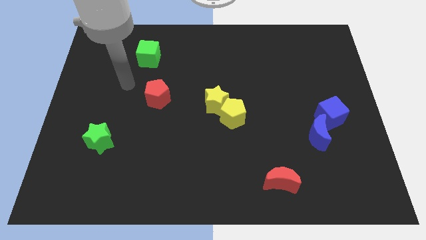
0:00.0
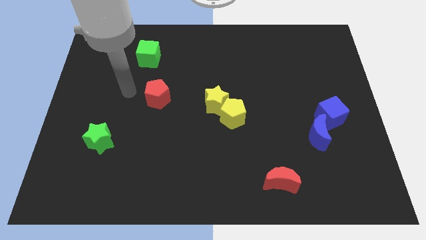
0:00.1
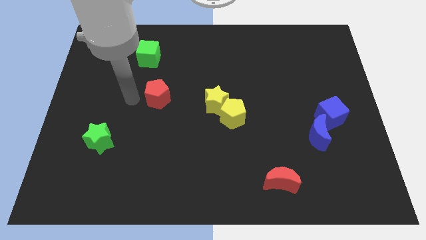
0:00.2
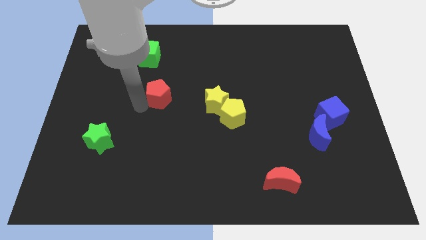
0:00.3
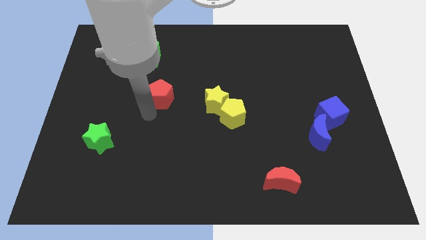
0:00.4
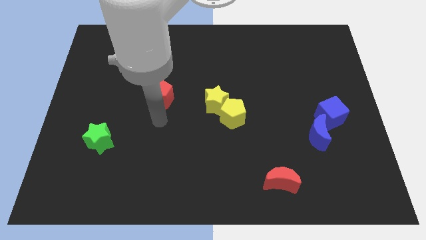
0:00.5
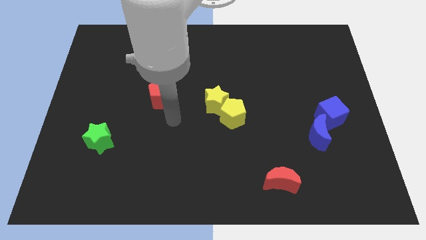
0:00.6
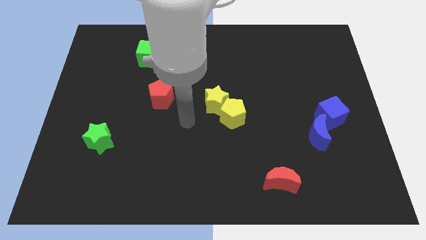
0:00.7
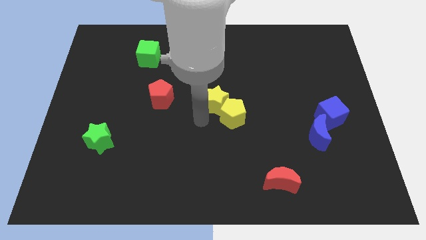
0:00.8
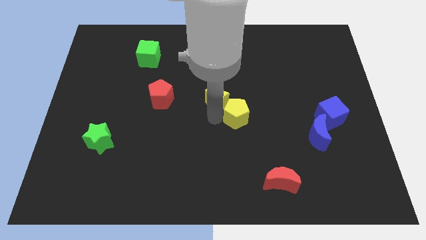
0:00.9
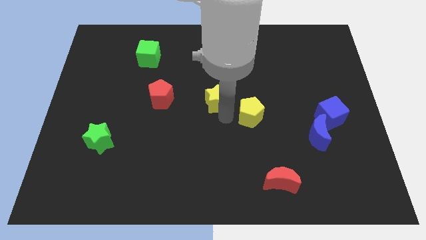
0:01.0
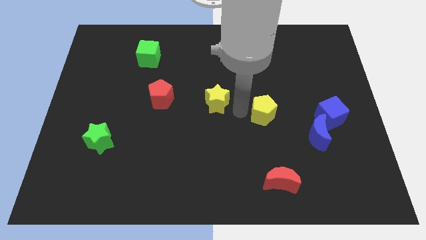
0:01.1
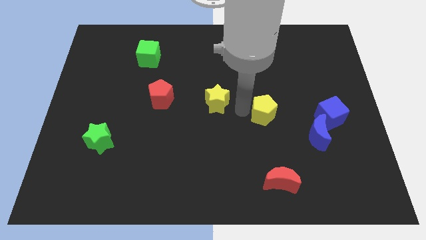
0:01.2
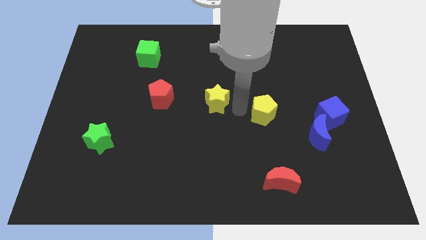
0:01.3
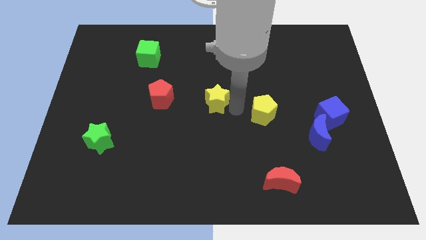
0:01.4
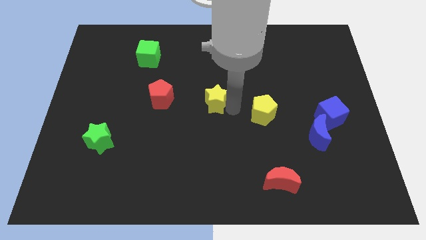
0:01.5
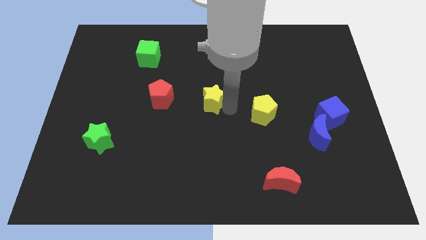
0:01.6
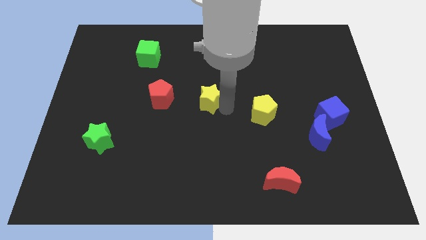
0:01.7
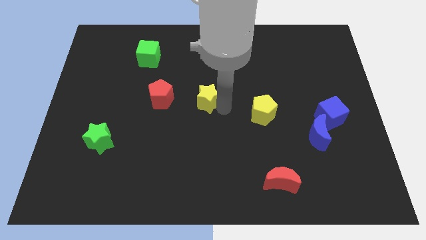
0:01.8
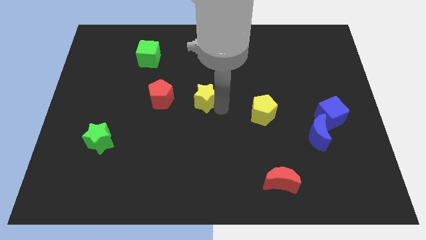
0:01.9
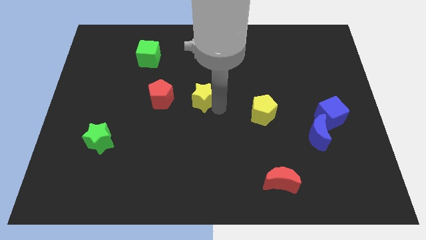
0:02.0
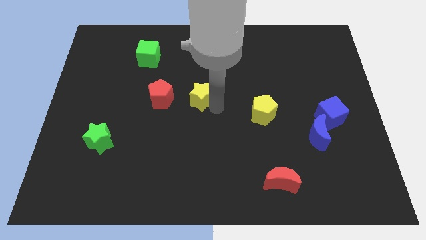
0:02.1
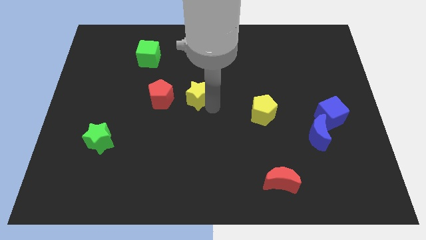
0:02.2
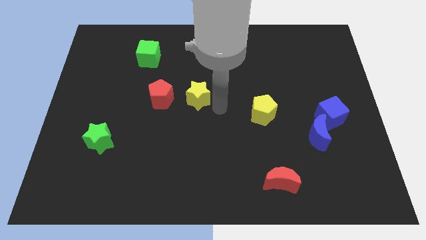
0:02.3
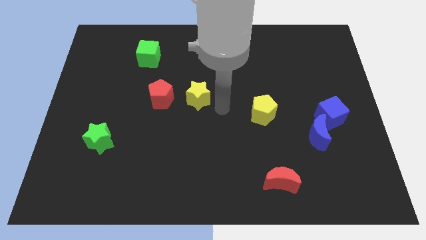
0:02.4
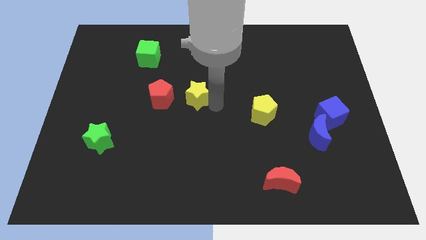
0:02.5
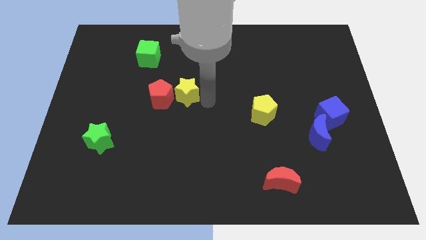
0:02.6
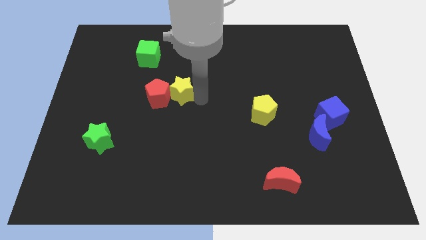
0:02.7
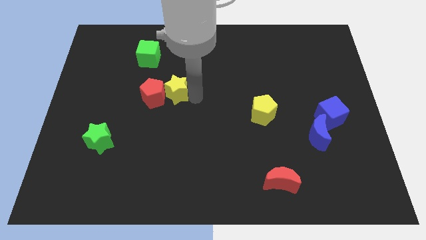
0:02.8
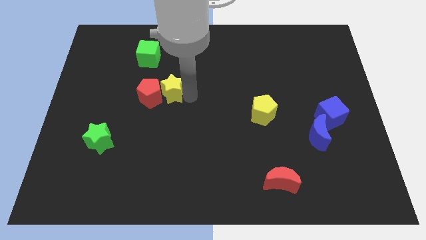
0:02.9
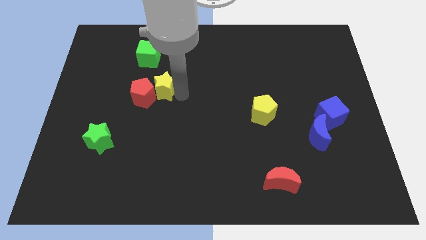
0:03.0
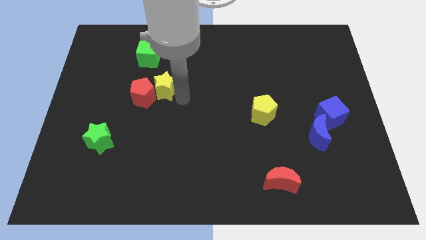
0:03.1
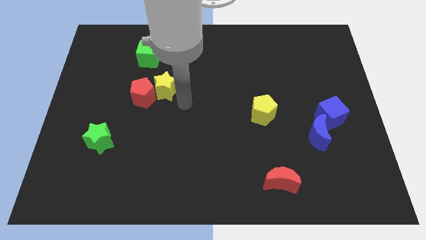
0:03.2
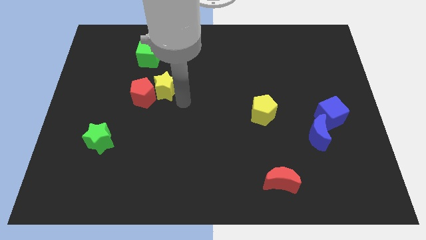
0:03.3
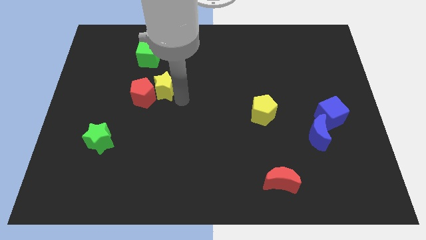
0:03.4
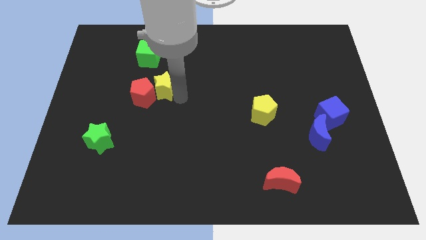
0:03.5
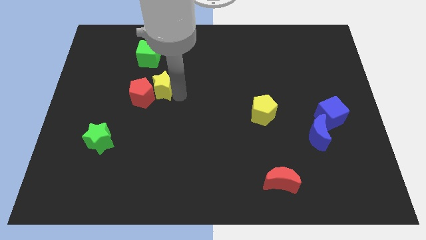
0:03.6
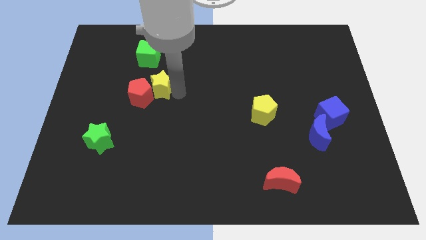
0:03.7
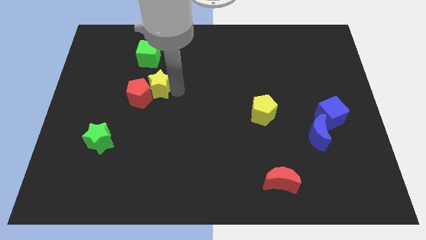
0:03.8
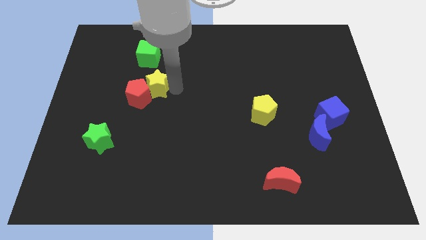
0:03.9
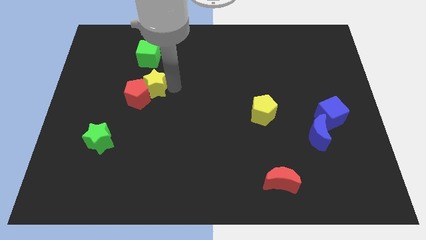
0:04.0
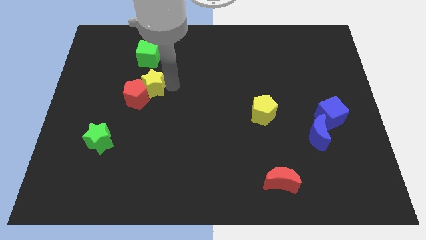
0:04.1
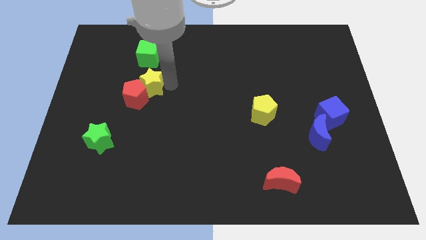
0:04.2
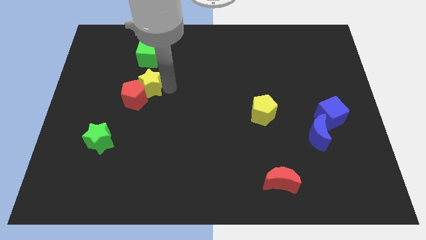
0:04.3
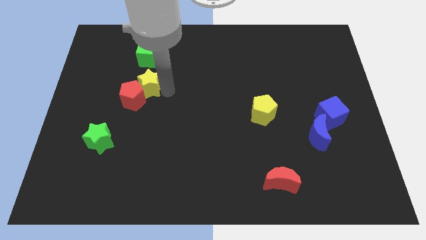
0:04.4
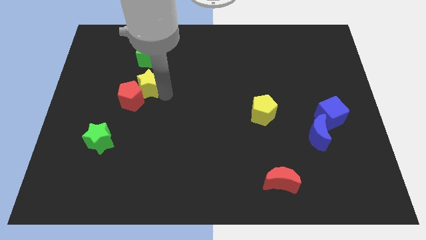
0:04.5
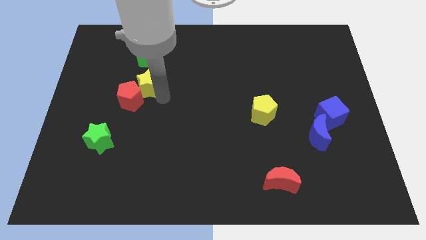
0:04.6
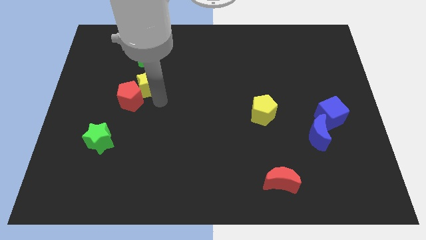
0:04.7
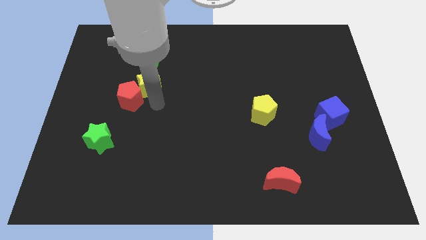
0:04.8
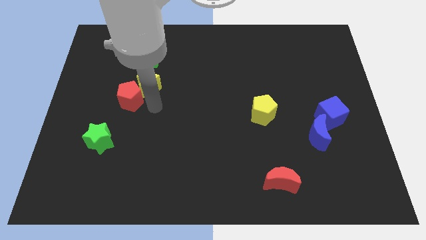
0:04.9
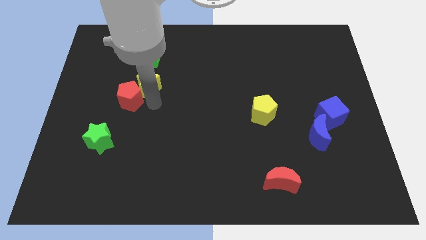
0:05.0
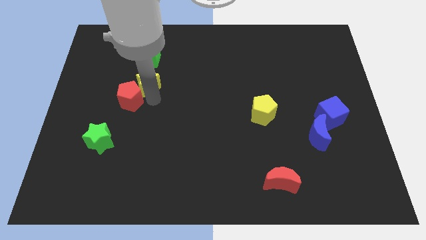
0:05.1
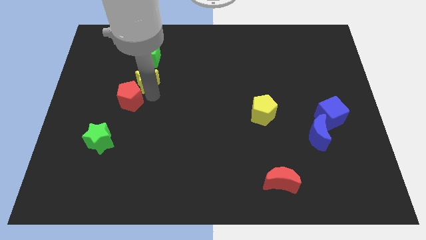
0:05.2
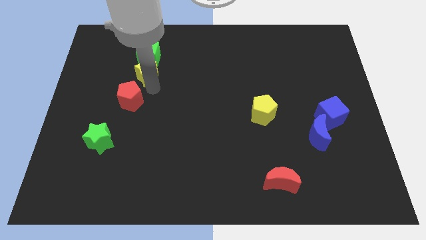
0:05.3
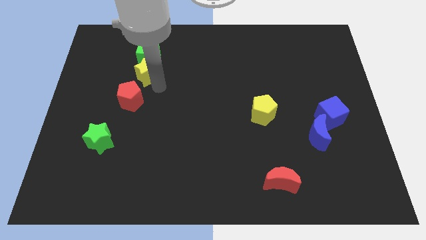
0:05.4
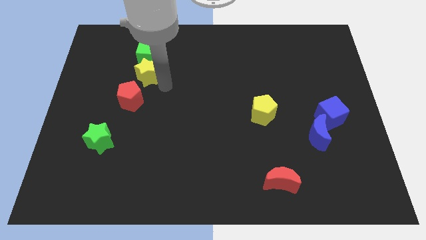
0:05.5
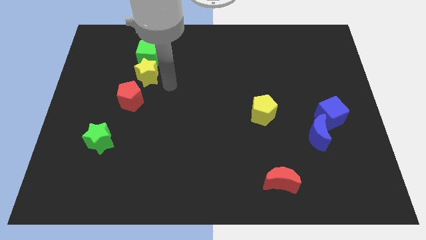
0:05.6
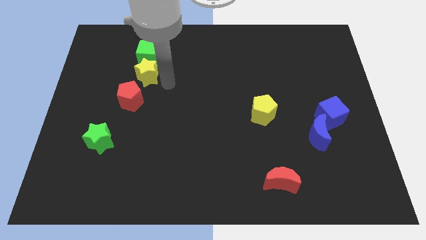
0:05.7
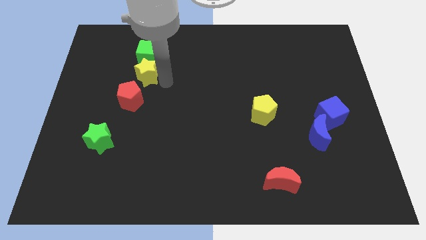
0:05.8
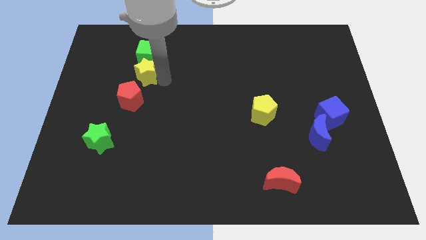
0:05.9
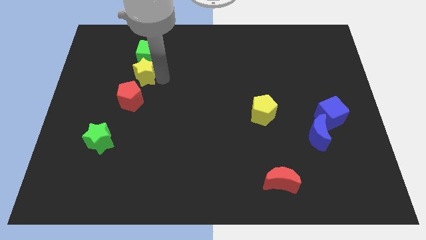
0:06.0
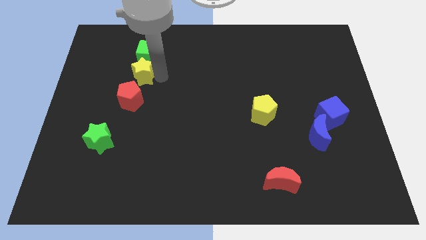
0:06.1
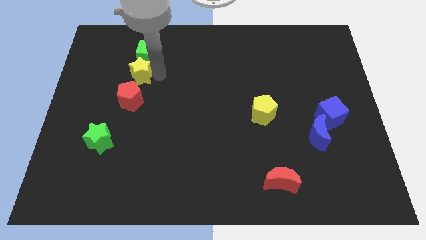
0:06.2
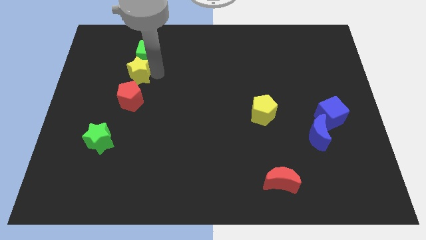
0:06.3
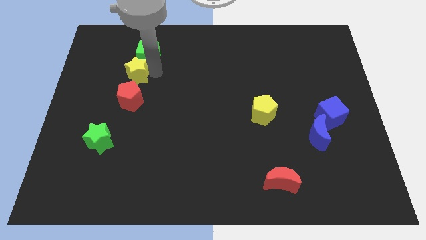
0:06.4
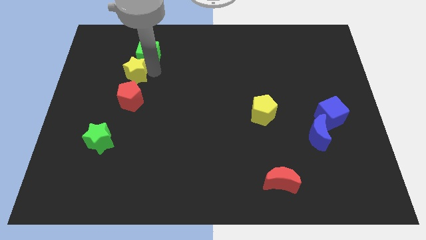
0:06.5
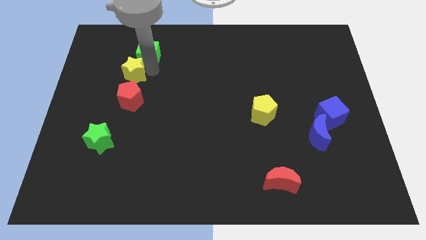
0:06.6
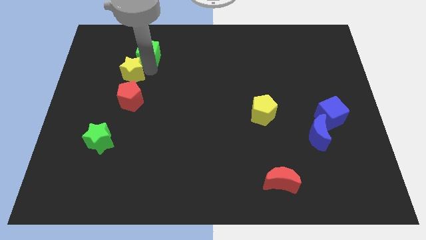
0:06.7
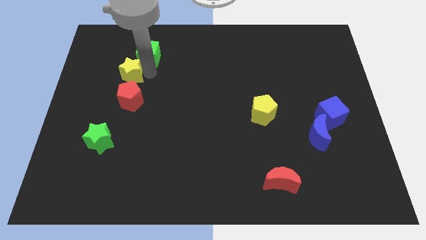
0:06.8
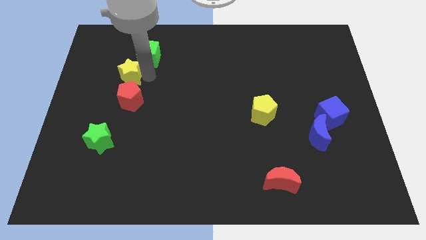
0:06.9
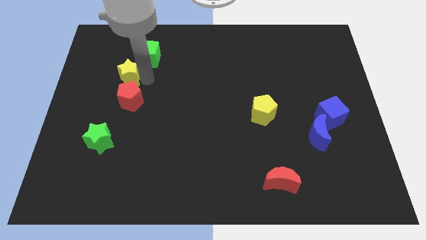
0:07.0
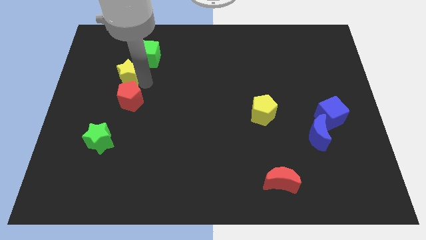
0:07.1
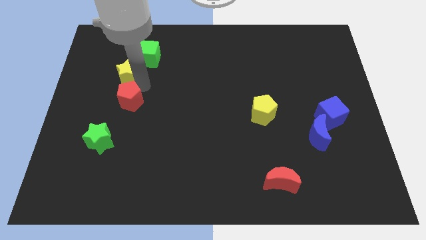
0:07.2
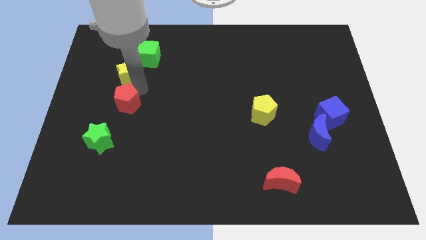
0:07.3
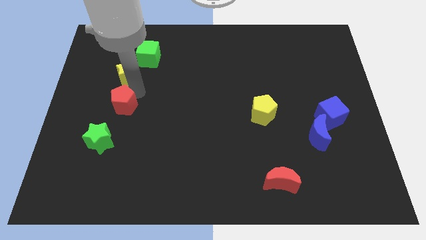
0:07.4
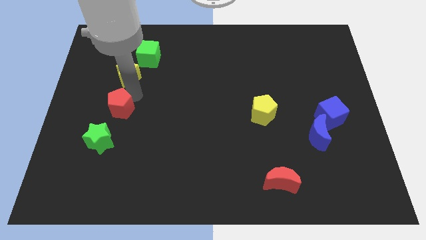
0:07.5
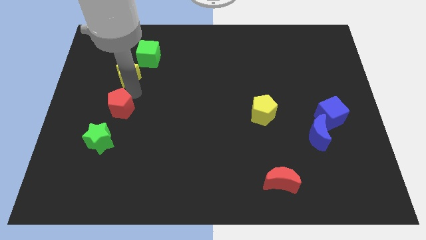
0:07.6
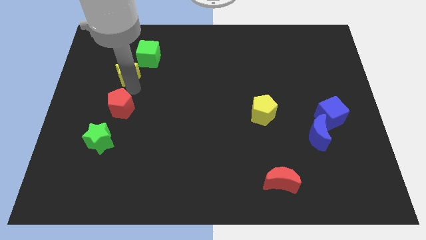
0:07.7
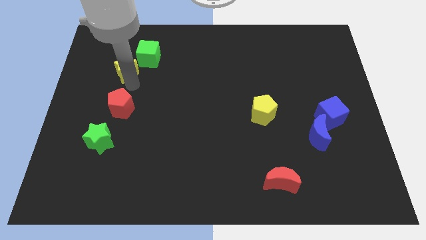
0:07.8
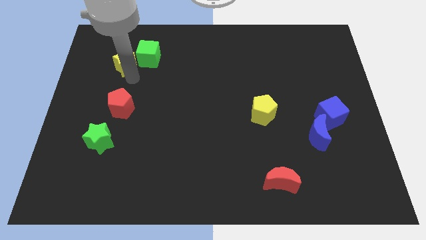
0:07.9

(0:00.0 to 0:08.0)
put the yellow star to the left of the green cube
